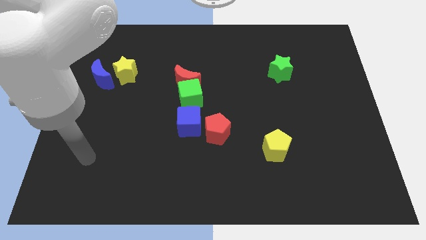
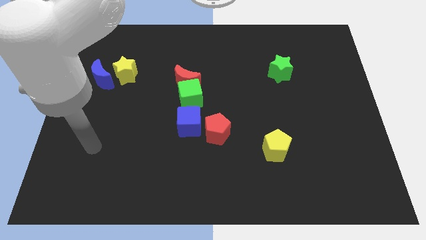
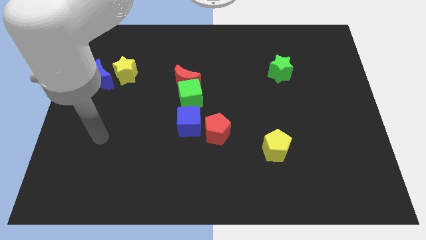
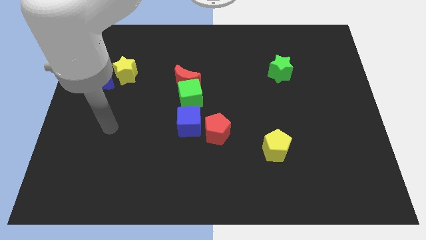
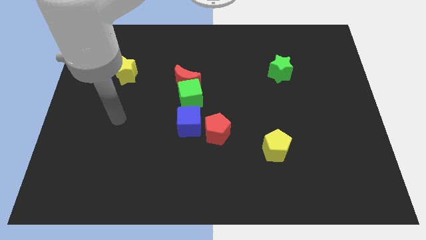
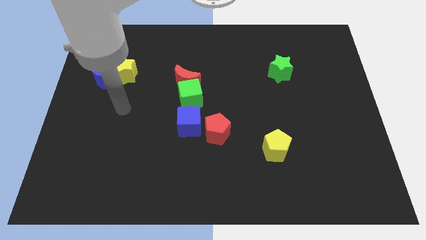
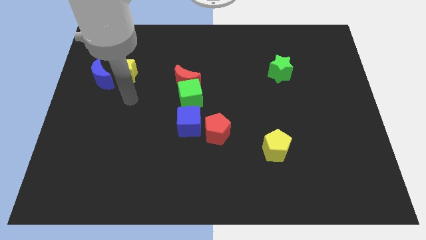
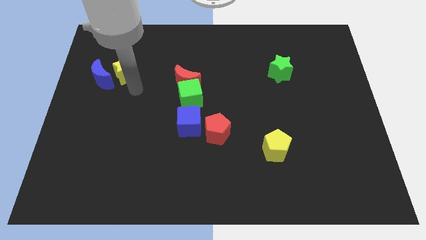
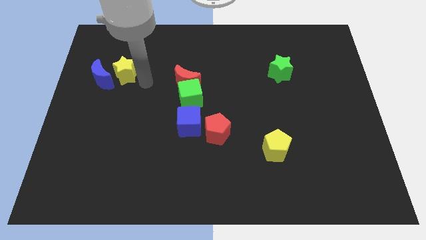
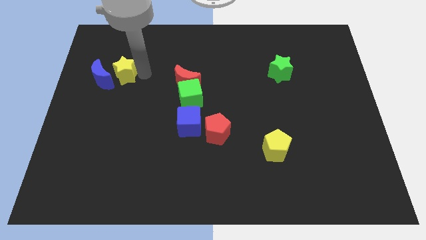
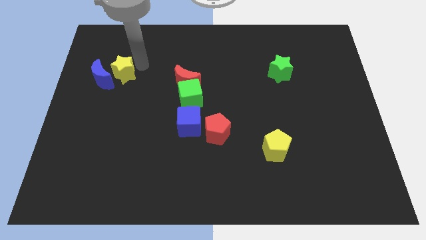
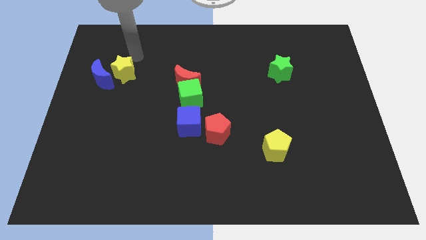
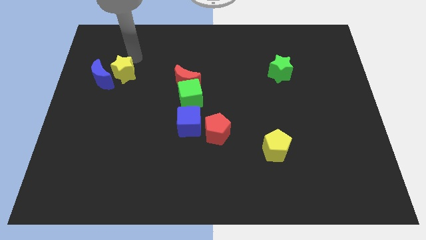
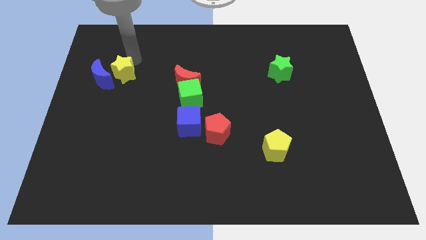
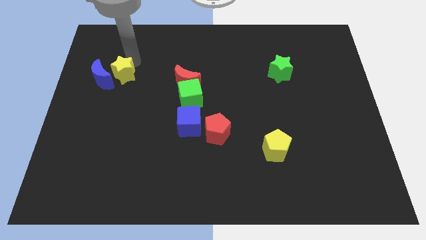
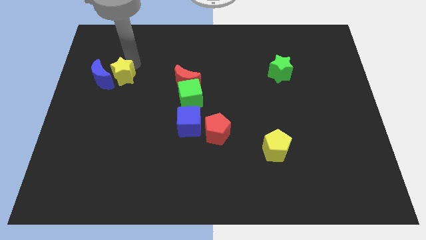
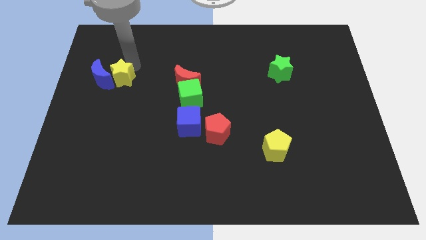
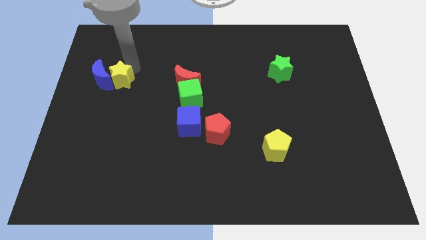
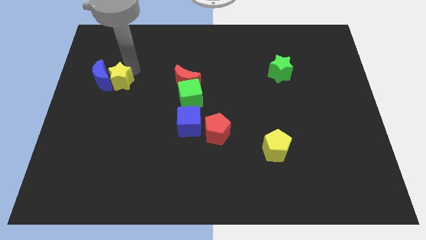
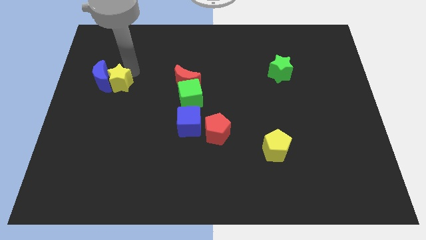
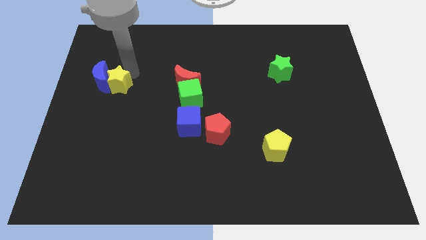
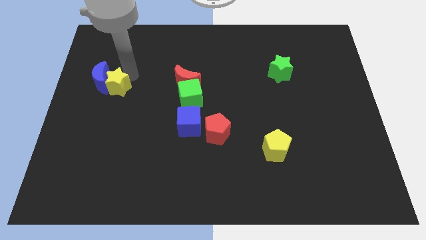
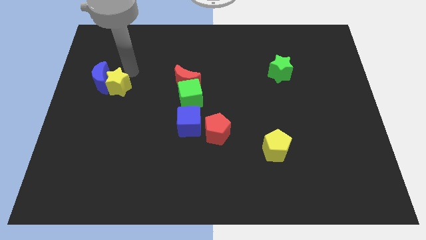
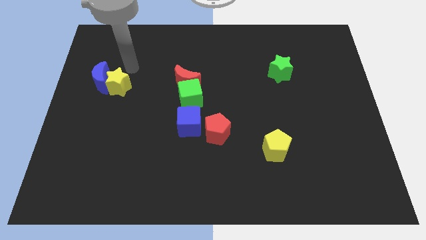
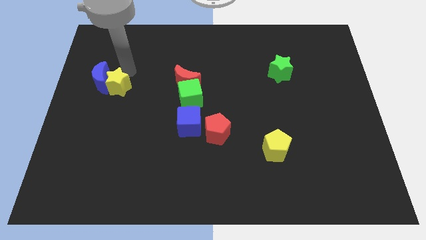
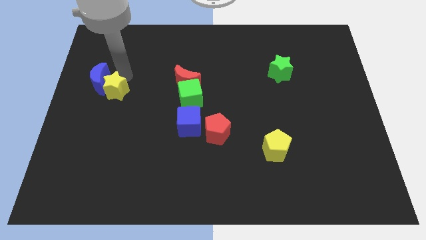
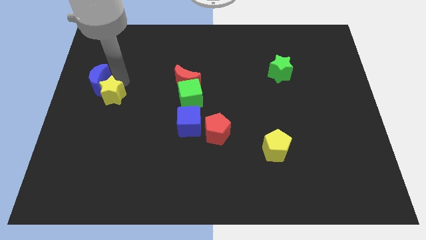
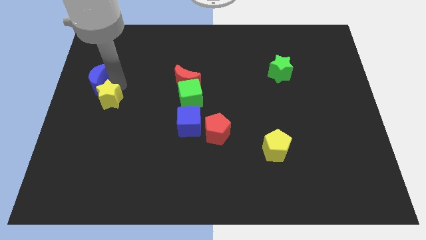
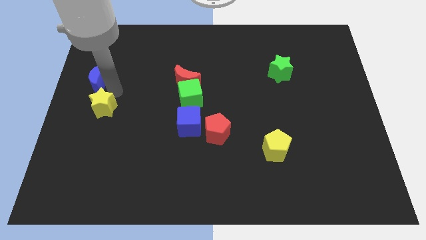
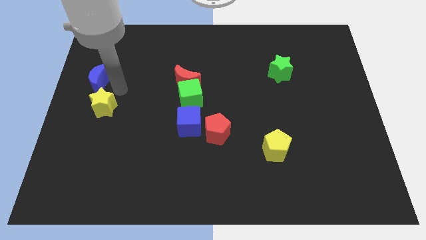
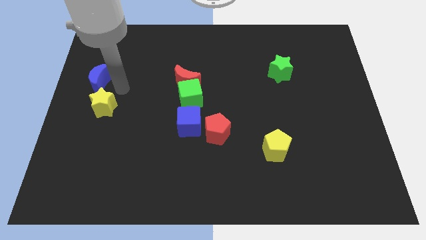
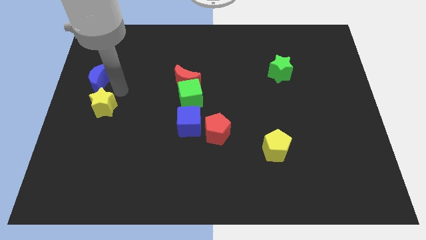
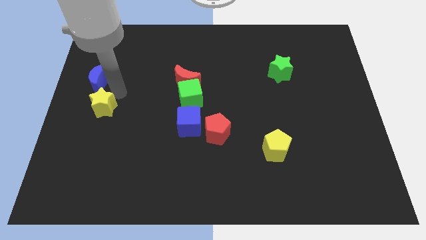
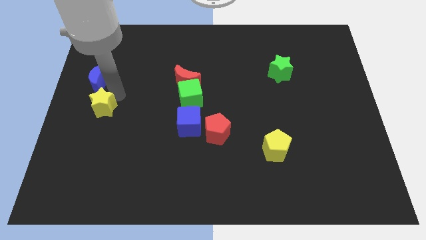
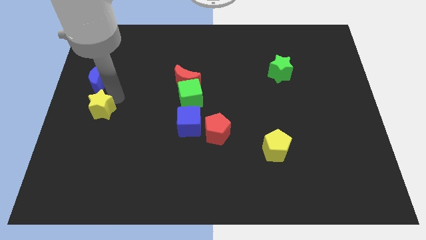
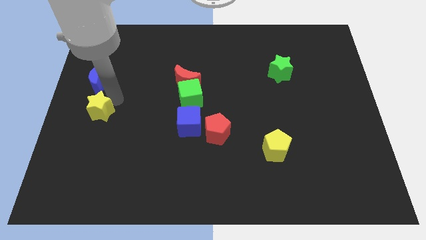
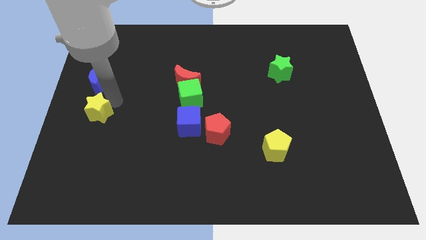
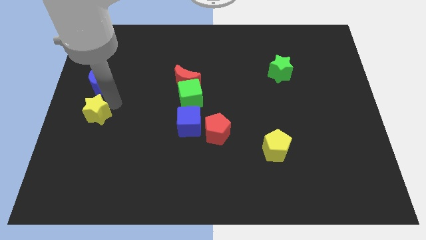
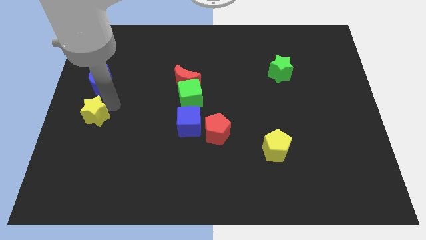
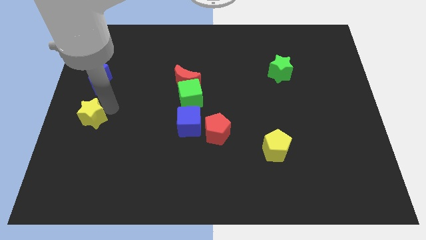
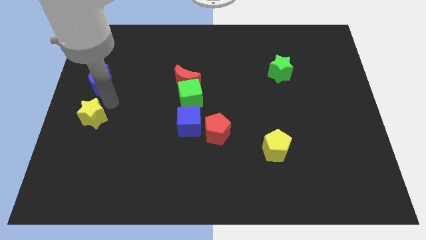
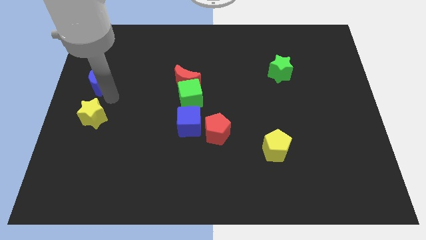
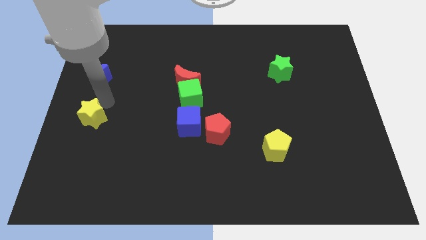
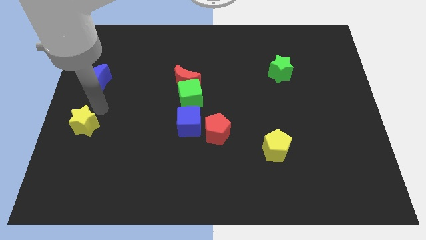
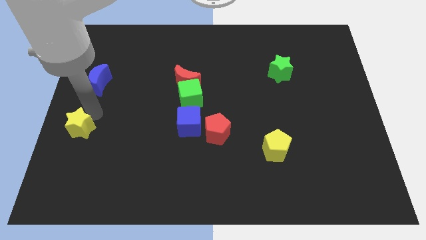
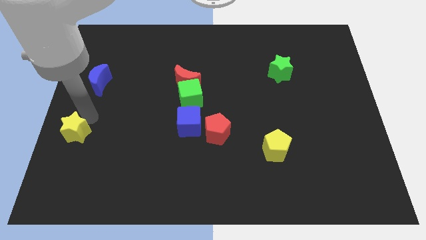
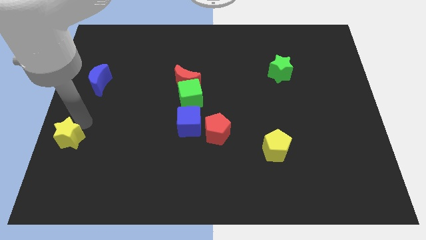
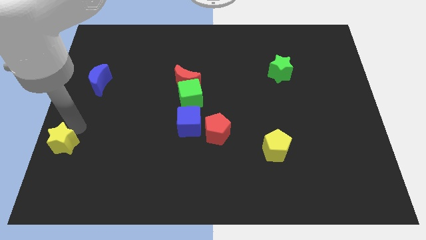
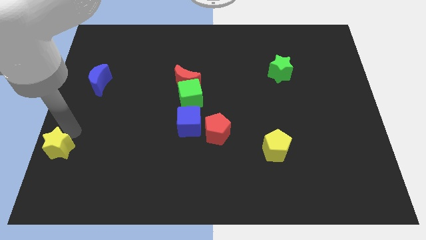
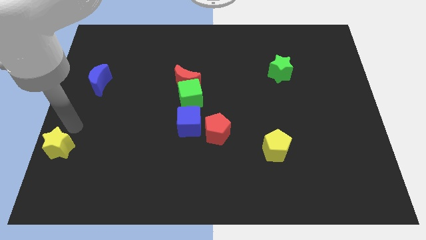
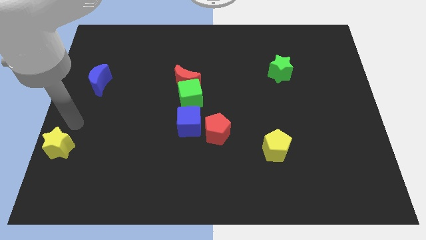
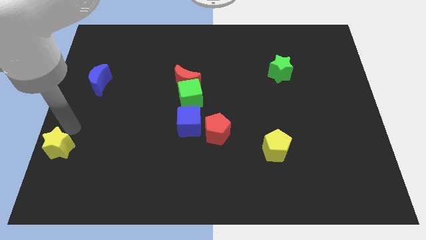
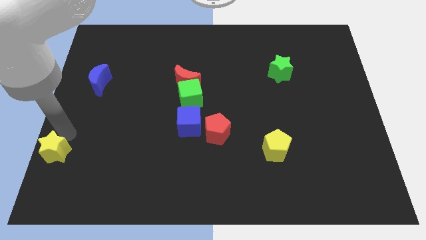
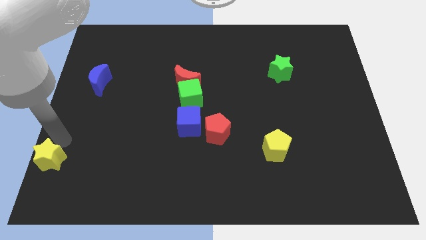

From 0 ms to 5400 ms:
slide the yellow star to the bottom left

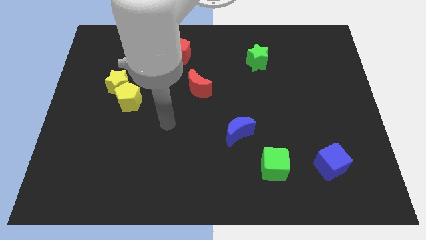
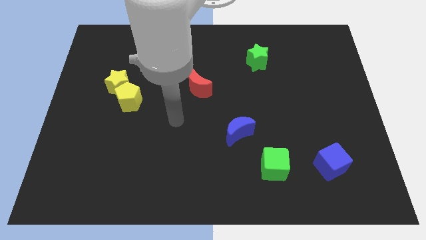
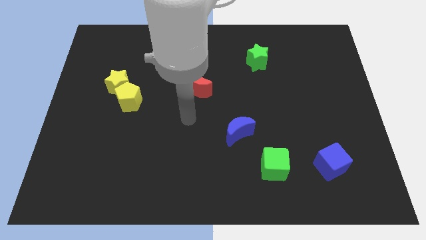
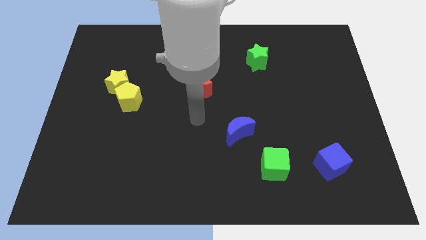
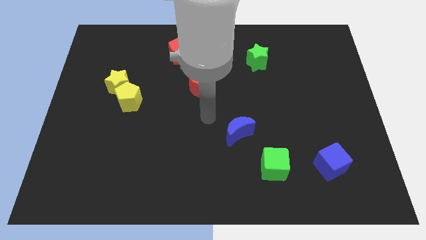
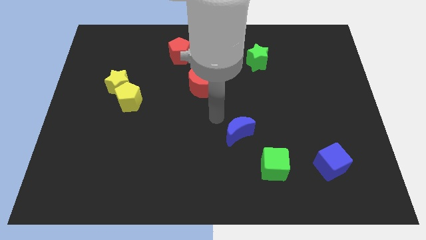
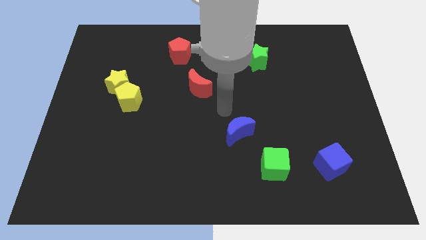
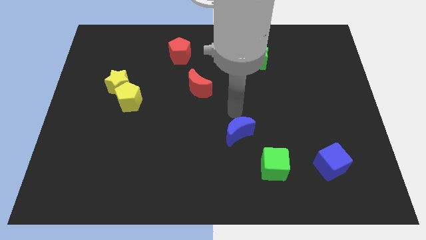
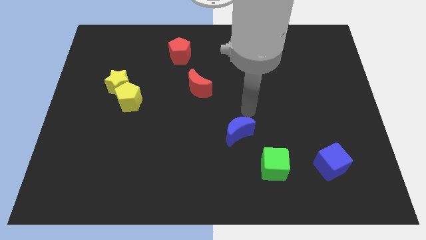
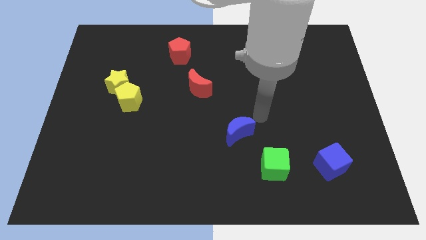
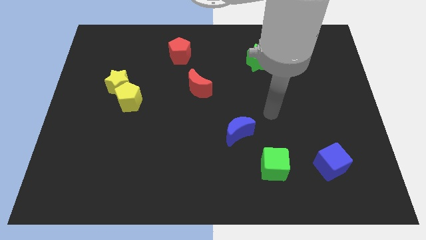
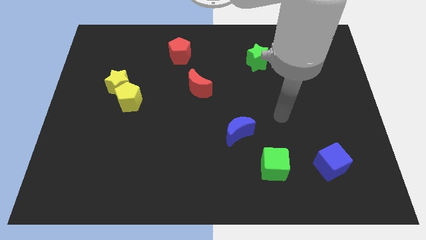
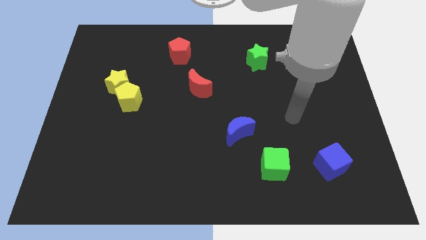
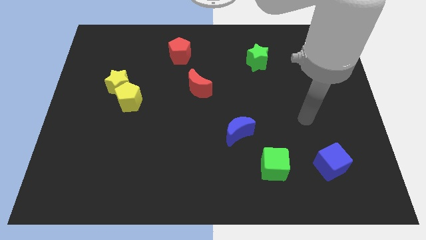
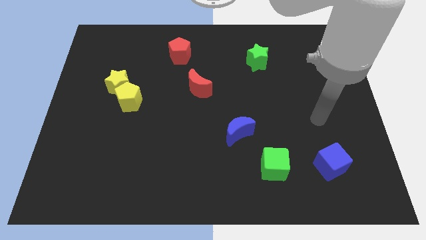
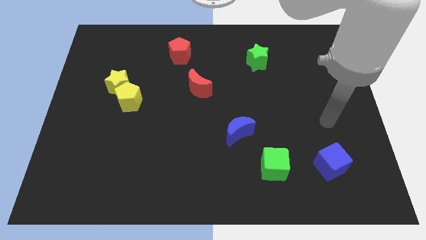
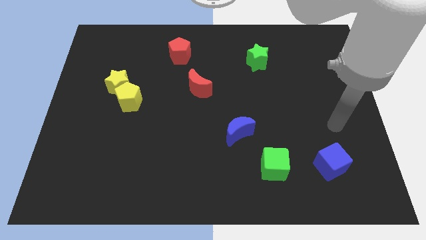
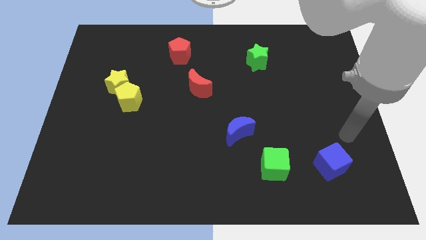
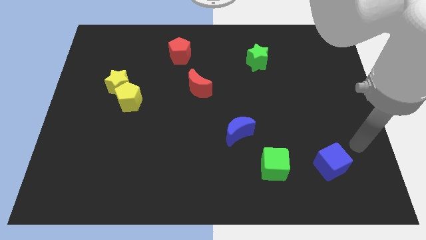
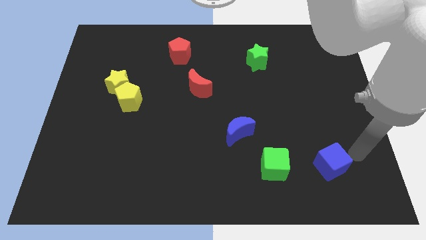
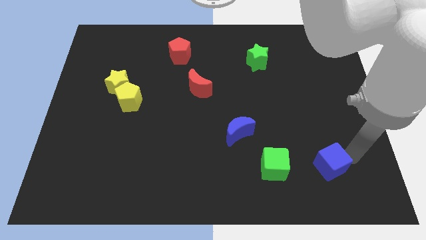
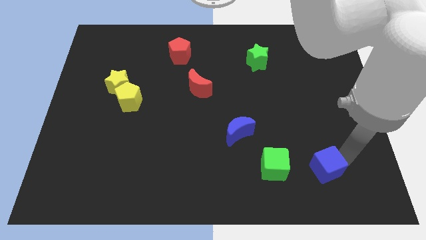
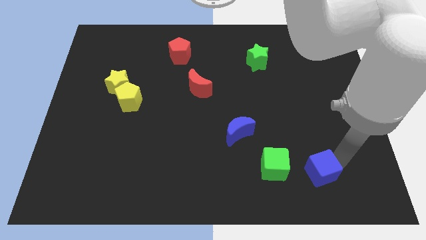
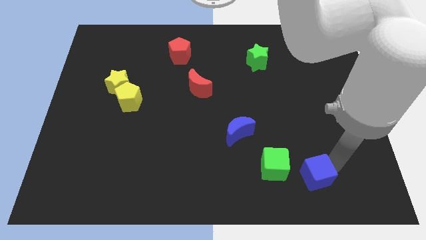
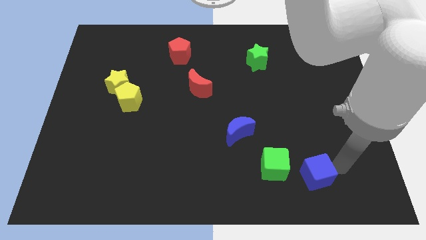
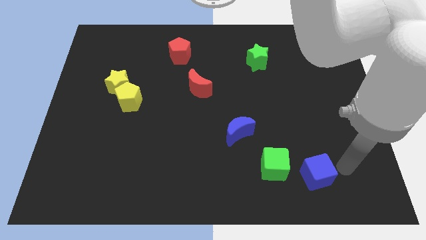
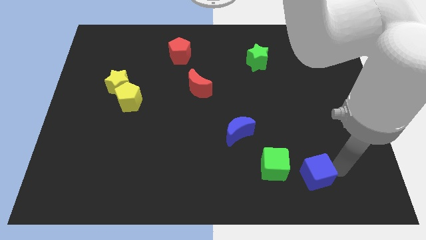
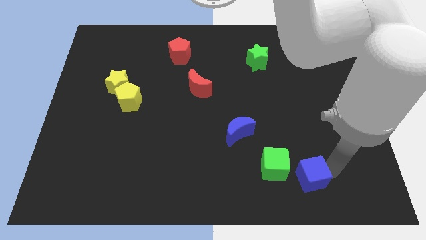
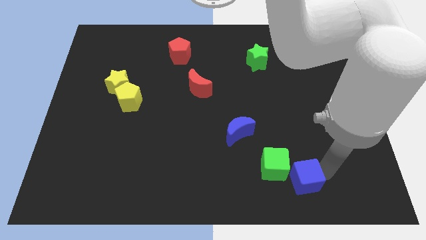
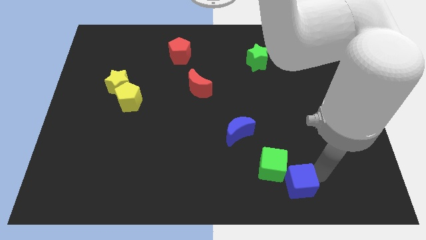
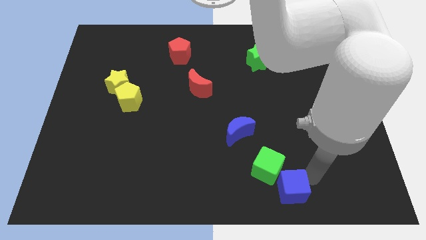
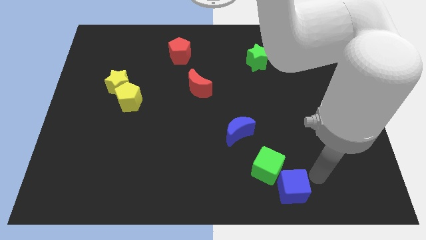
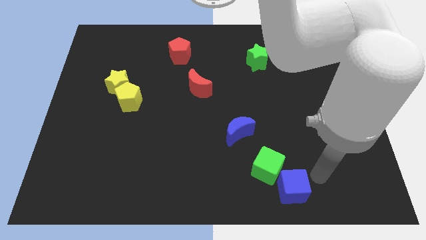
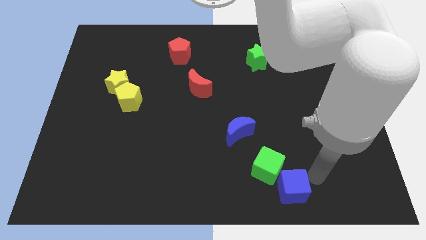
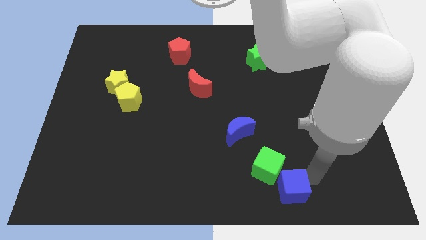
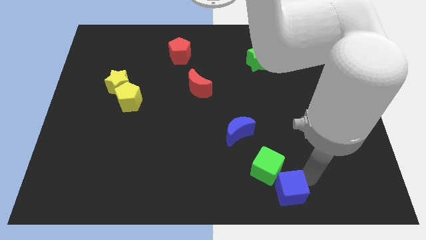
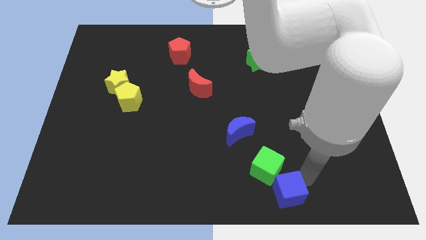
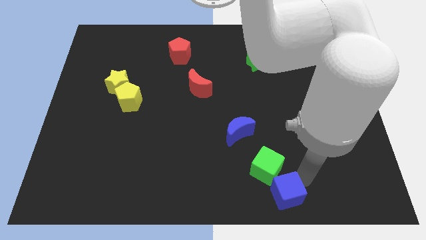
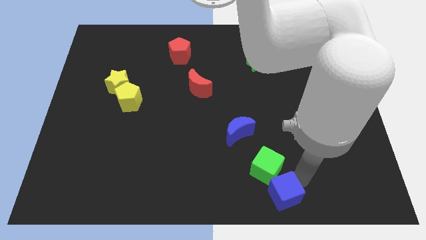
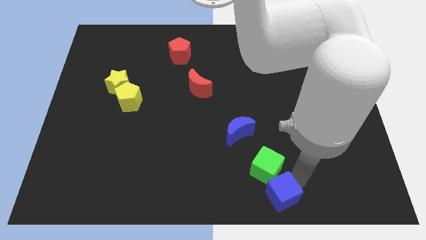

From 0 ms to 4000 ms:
put the blue cube to the bottom
